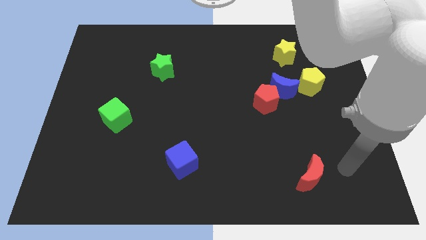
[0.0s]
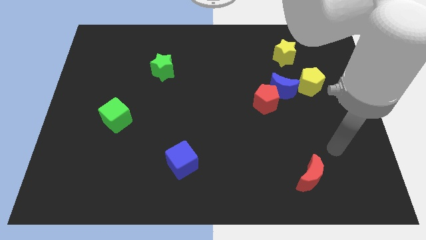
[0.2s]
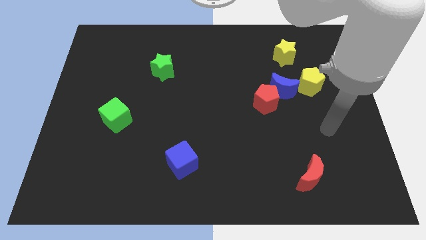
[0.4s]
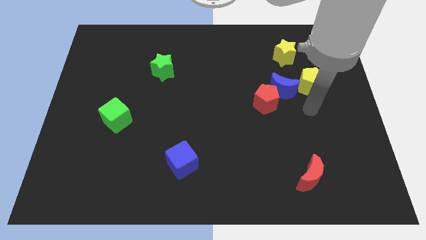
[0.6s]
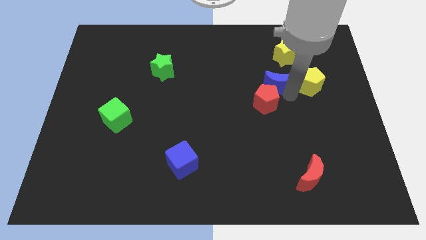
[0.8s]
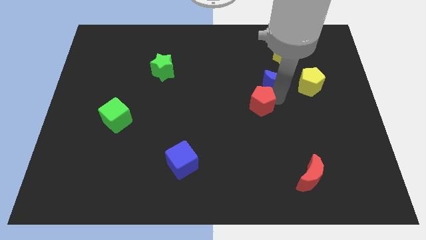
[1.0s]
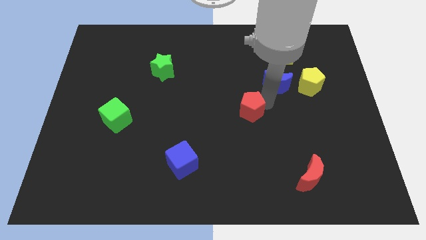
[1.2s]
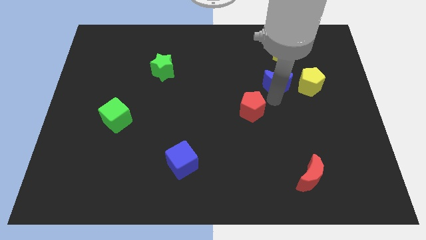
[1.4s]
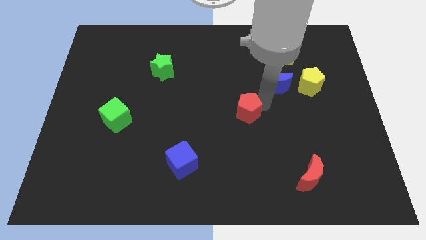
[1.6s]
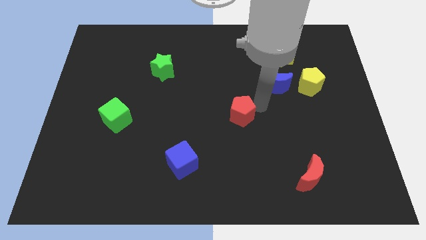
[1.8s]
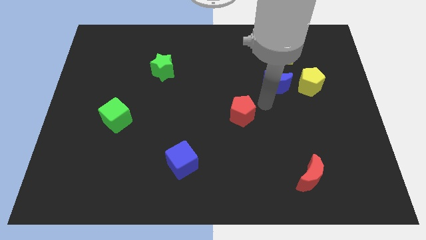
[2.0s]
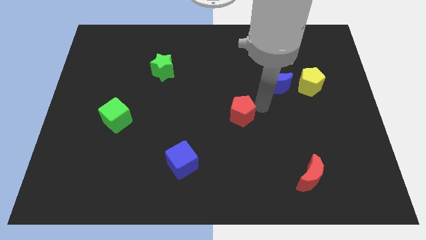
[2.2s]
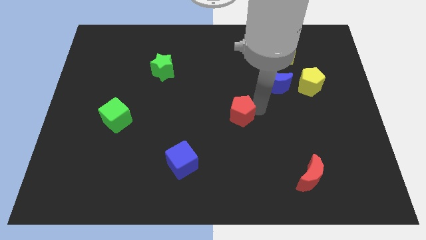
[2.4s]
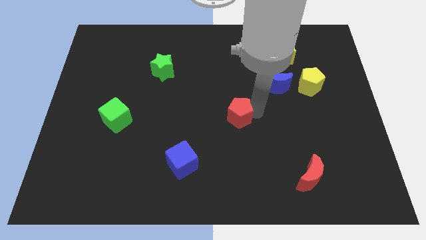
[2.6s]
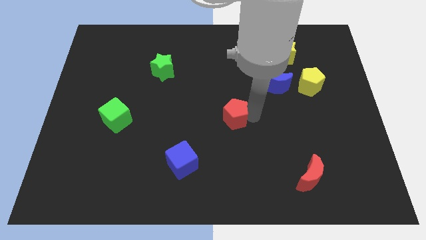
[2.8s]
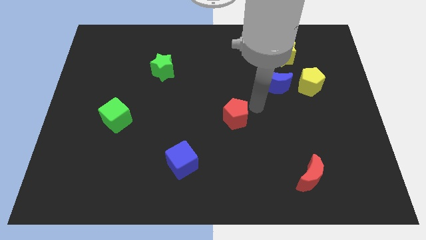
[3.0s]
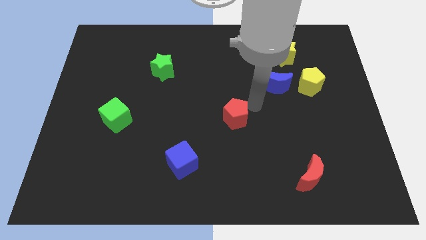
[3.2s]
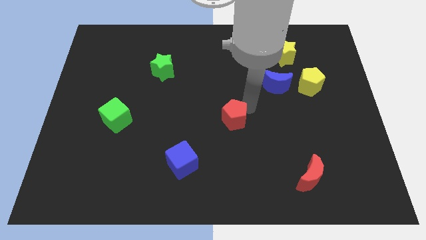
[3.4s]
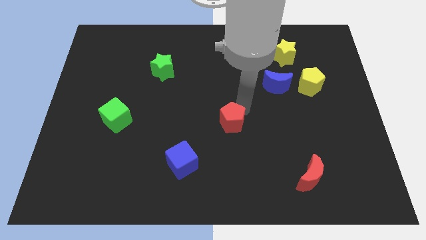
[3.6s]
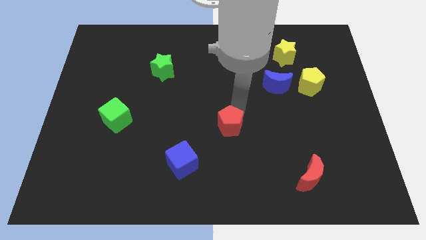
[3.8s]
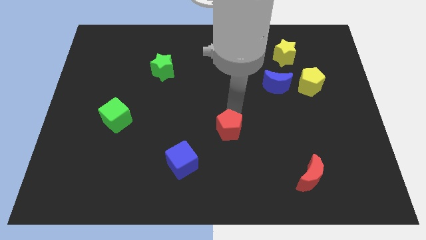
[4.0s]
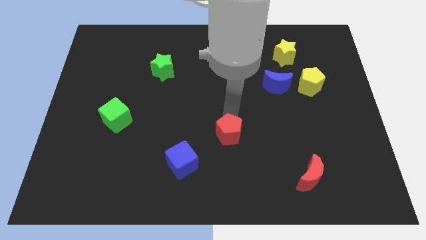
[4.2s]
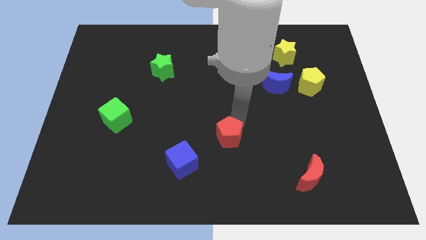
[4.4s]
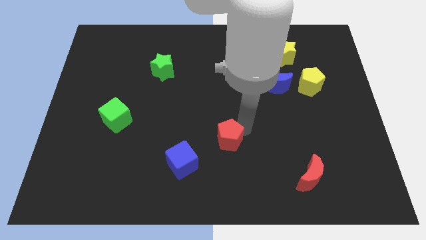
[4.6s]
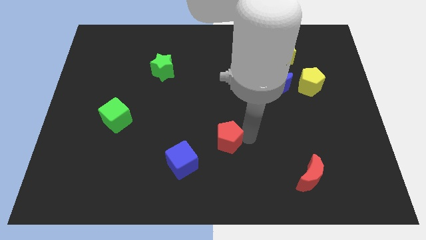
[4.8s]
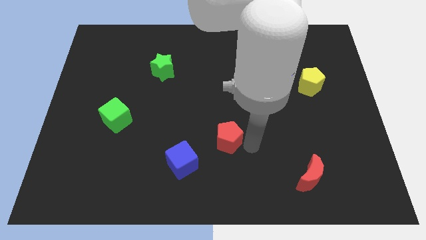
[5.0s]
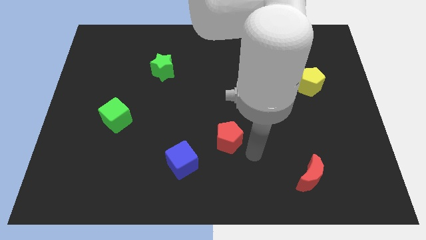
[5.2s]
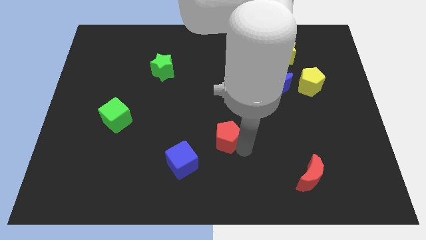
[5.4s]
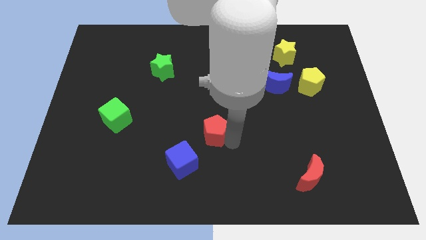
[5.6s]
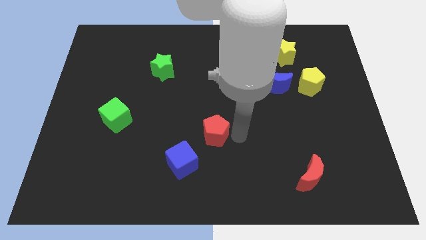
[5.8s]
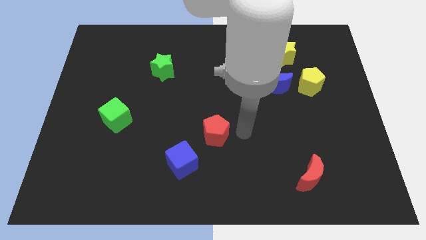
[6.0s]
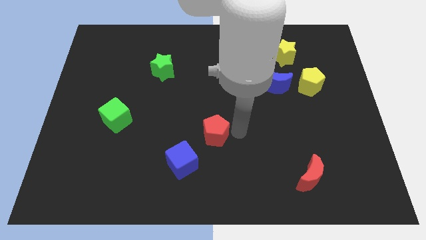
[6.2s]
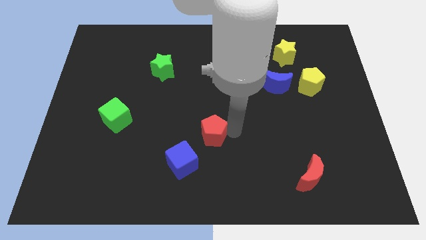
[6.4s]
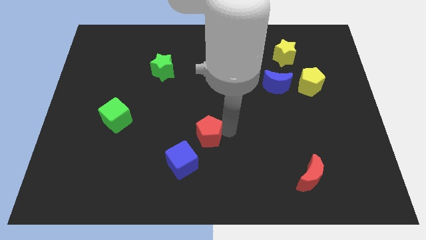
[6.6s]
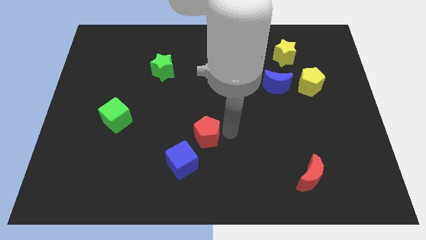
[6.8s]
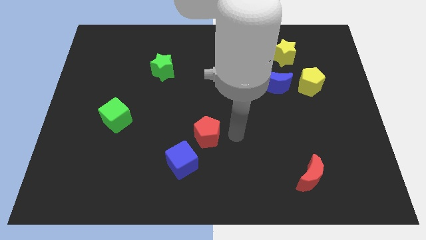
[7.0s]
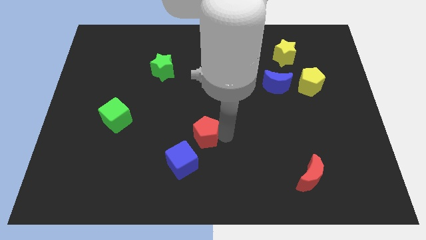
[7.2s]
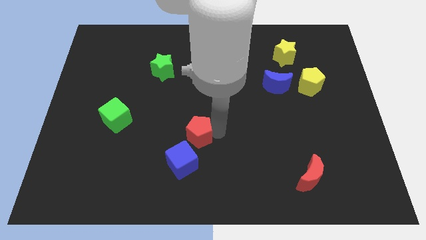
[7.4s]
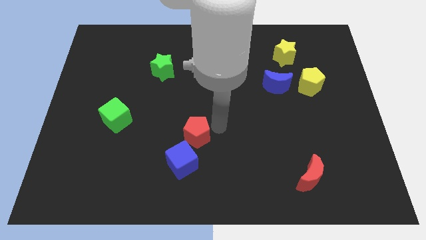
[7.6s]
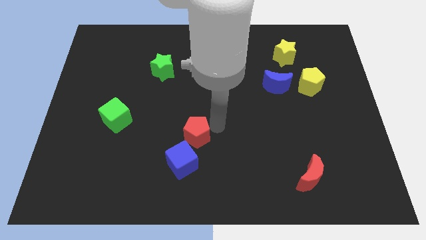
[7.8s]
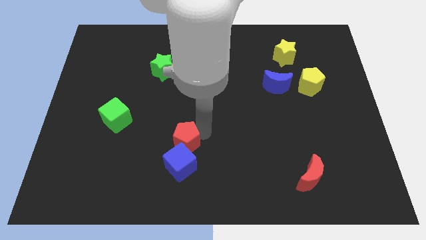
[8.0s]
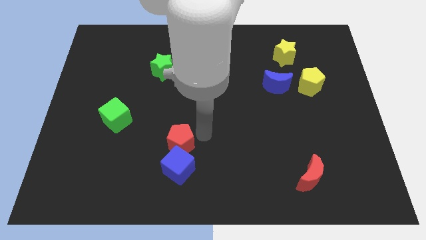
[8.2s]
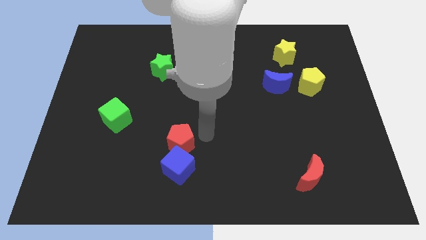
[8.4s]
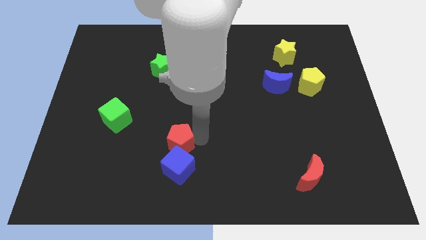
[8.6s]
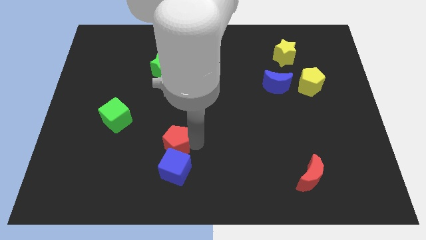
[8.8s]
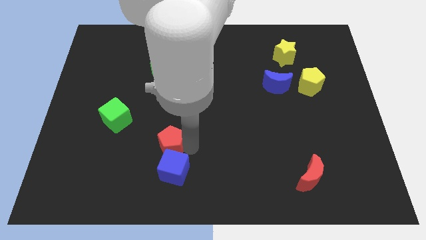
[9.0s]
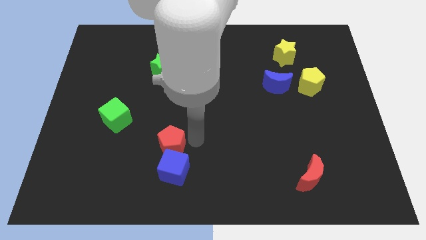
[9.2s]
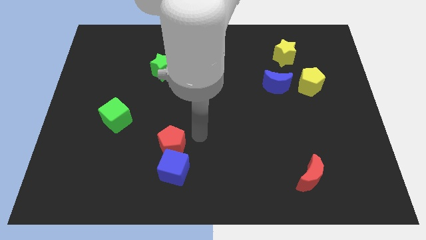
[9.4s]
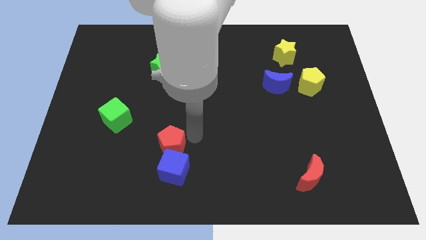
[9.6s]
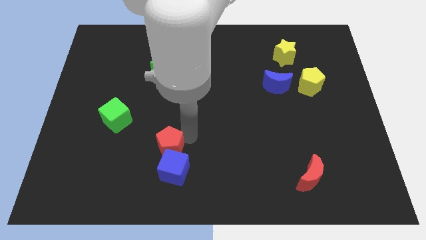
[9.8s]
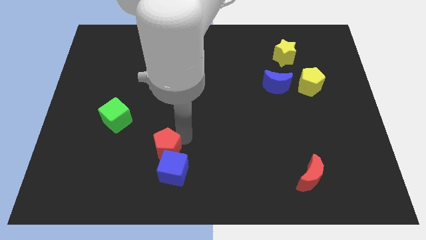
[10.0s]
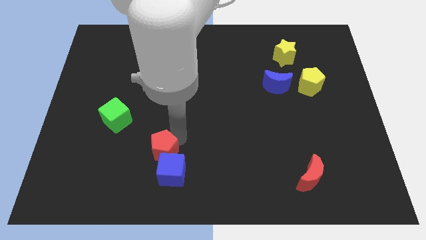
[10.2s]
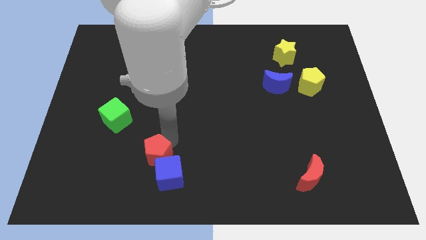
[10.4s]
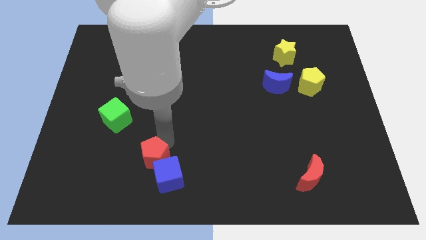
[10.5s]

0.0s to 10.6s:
slide the red pentagon to the left side of the blue cube

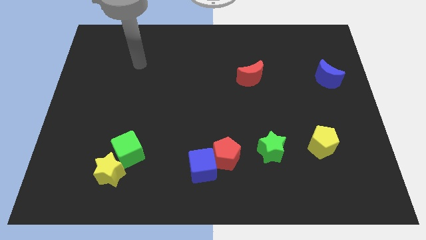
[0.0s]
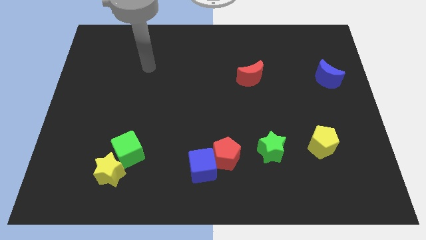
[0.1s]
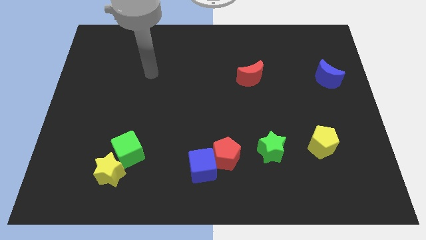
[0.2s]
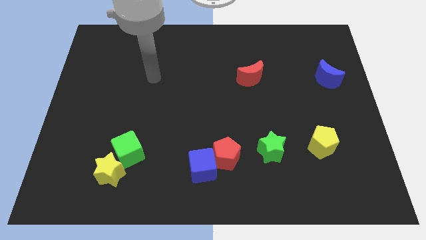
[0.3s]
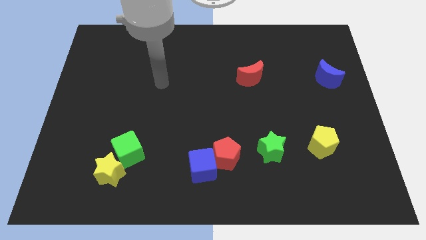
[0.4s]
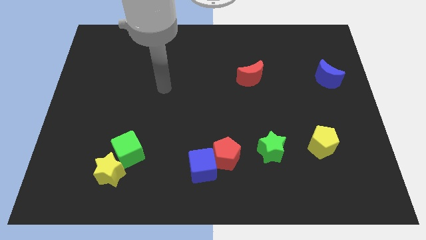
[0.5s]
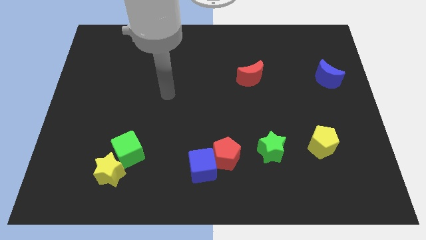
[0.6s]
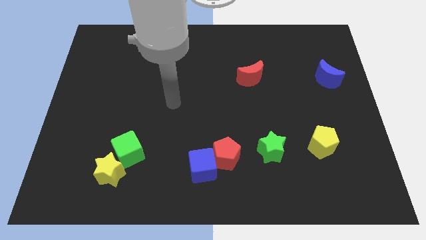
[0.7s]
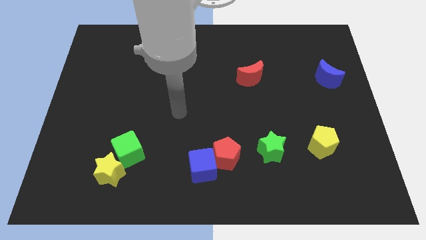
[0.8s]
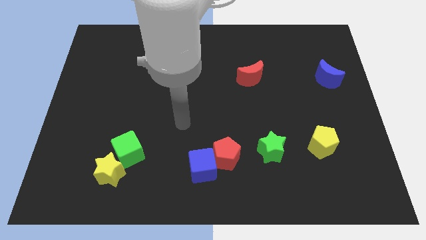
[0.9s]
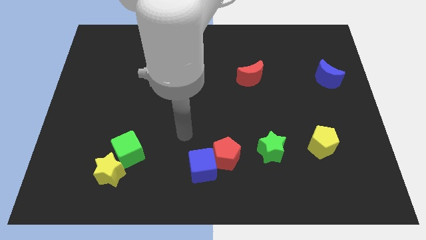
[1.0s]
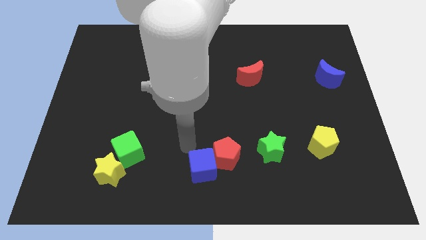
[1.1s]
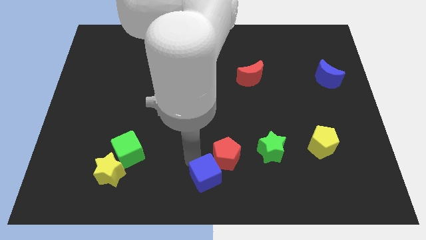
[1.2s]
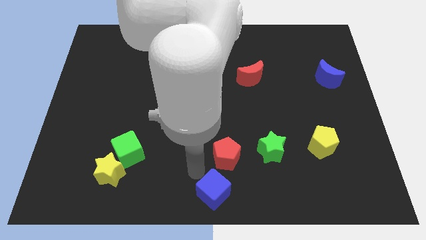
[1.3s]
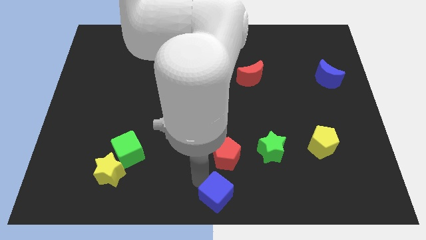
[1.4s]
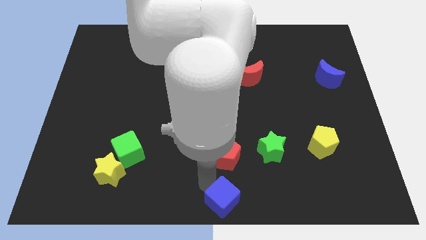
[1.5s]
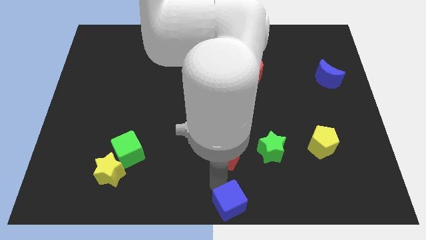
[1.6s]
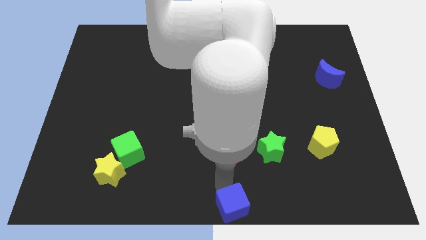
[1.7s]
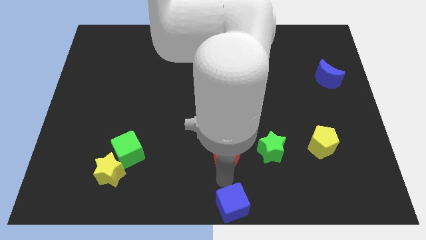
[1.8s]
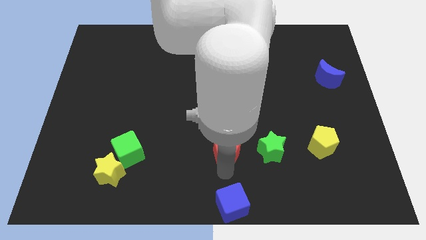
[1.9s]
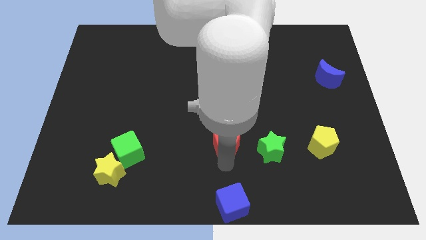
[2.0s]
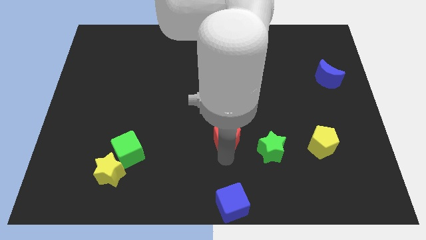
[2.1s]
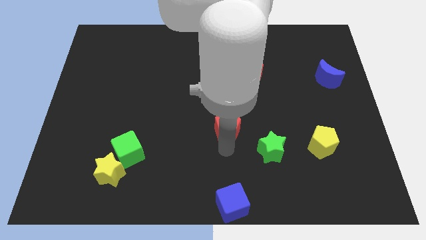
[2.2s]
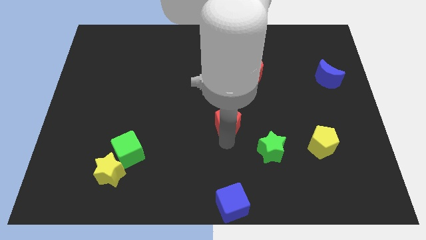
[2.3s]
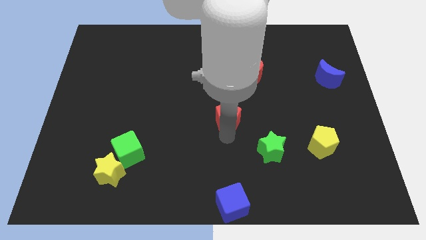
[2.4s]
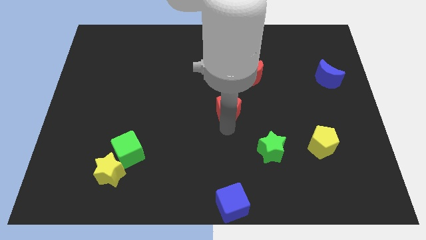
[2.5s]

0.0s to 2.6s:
slide the red pentagon to the bottom left side of the red moon
